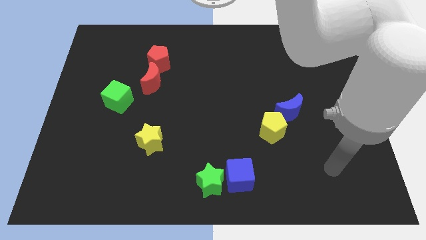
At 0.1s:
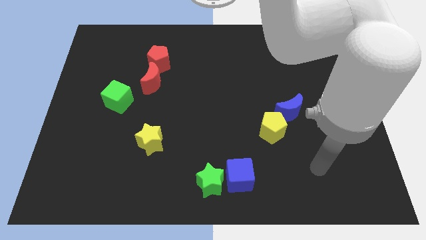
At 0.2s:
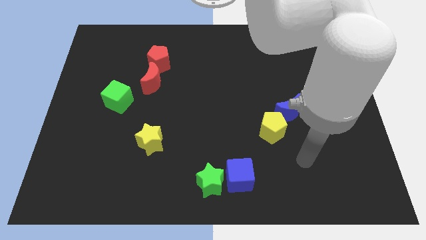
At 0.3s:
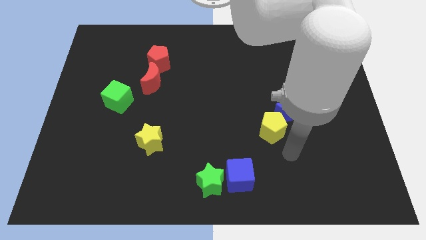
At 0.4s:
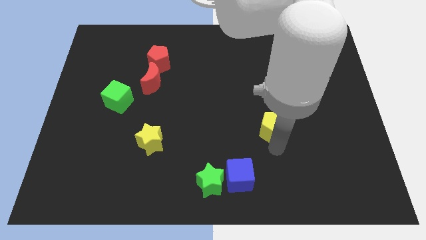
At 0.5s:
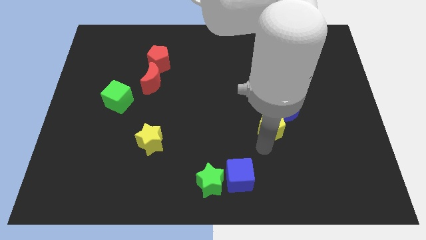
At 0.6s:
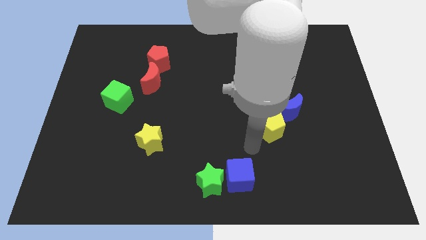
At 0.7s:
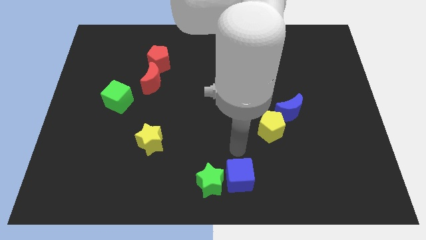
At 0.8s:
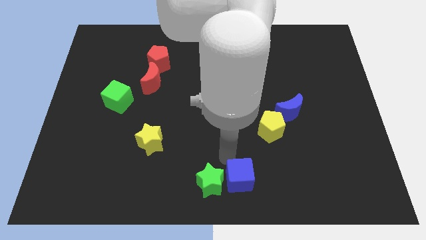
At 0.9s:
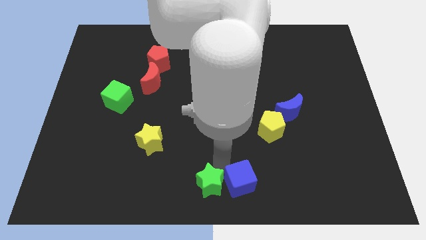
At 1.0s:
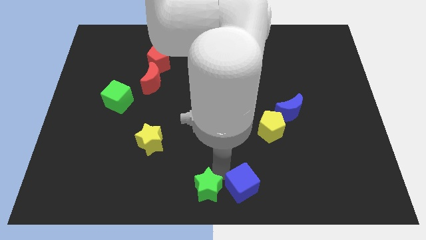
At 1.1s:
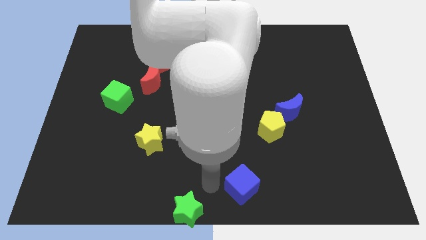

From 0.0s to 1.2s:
pull the blue cube apart from the green star

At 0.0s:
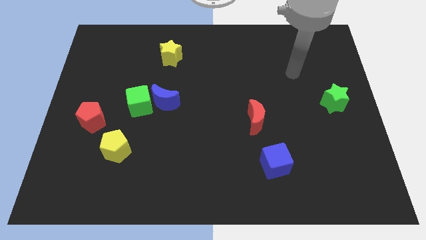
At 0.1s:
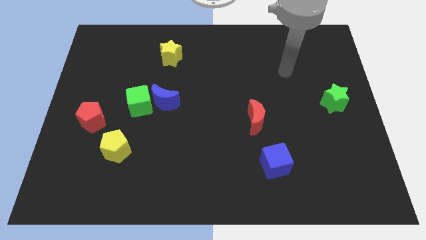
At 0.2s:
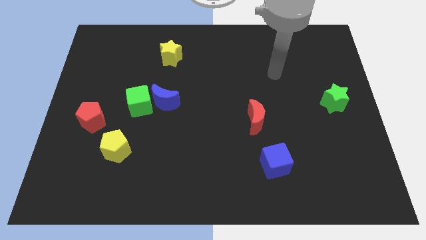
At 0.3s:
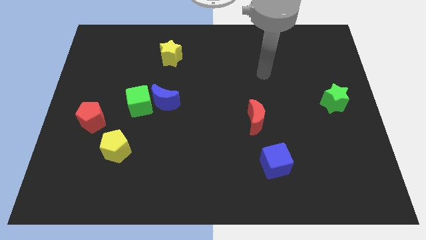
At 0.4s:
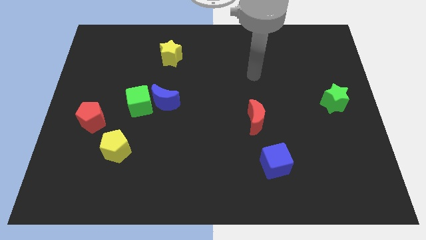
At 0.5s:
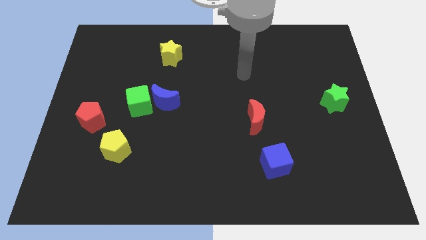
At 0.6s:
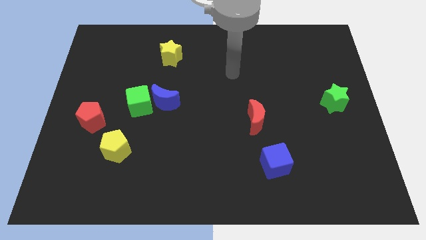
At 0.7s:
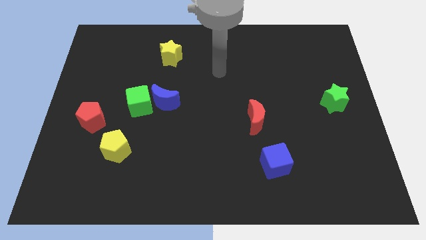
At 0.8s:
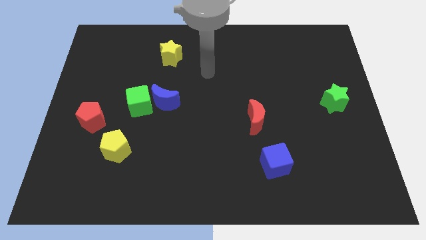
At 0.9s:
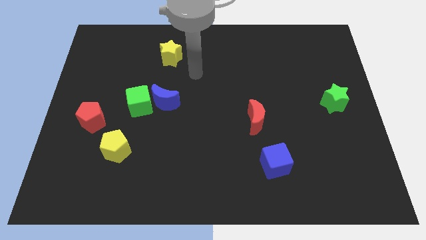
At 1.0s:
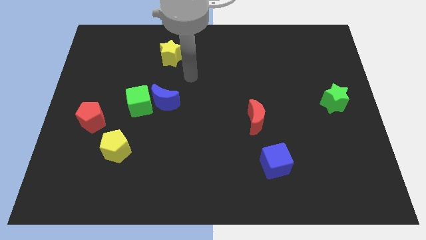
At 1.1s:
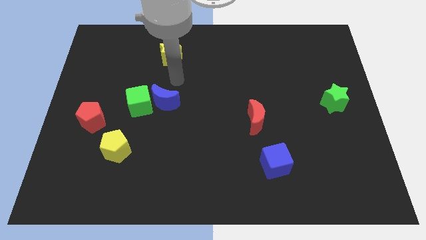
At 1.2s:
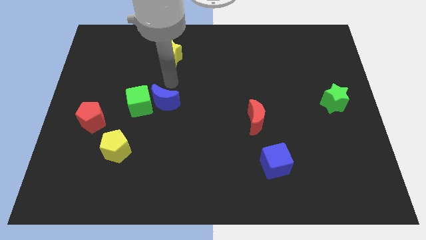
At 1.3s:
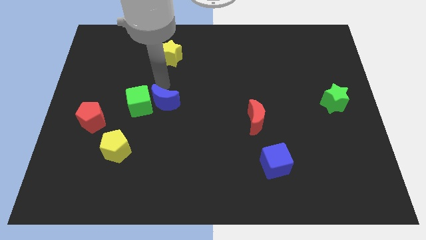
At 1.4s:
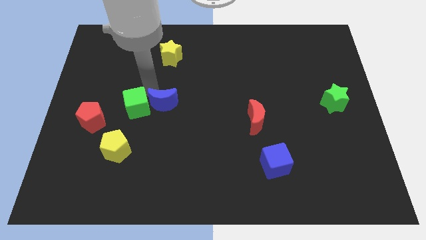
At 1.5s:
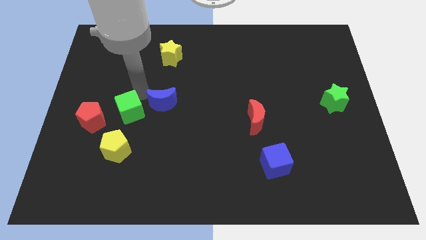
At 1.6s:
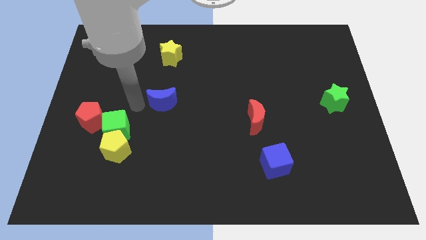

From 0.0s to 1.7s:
pull the blue moon apart from the green cube

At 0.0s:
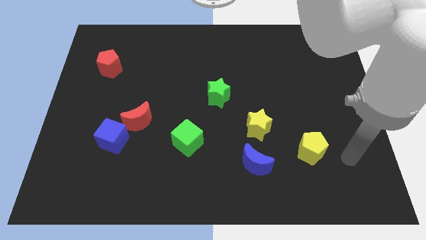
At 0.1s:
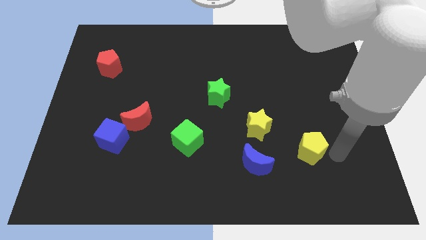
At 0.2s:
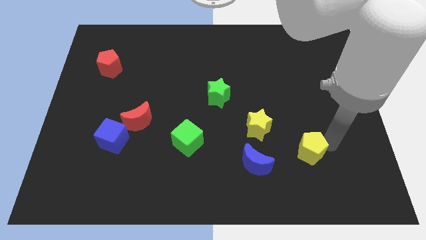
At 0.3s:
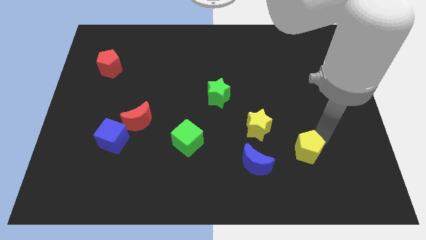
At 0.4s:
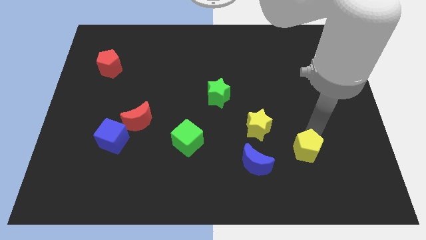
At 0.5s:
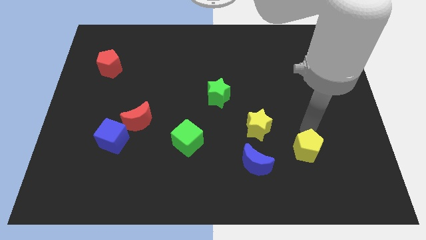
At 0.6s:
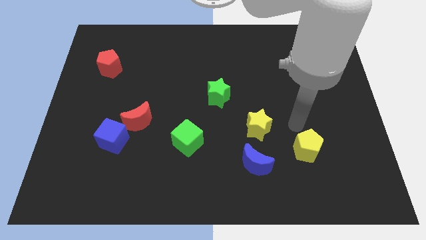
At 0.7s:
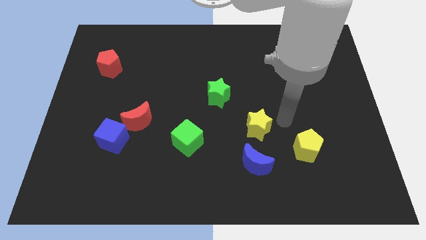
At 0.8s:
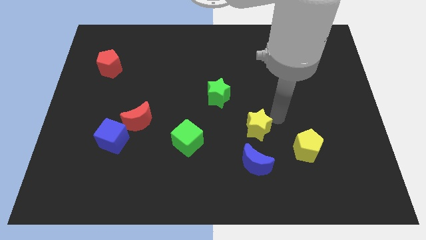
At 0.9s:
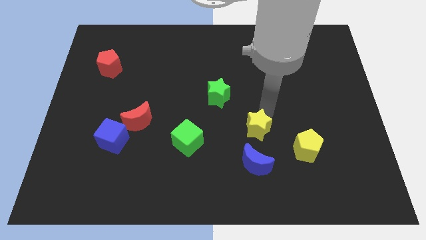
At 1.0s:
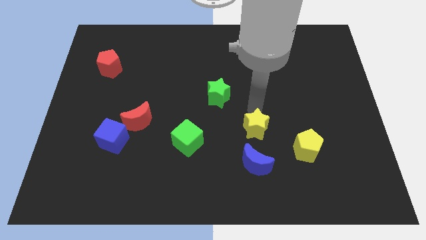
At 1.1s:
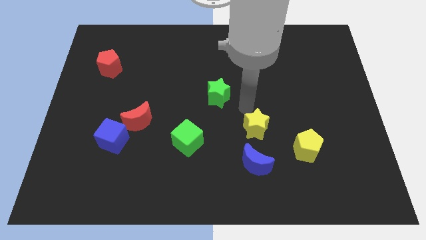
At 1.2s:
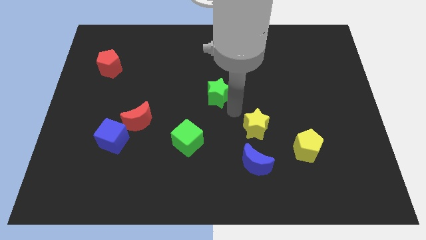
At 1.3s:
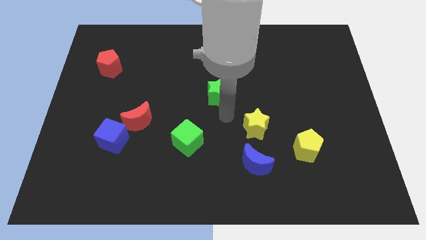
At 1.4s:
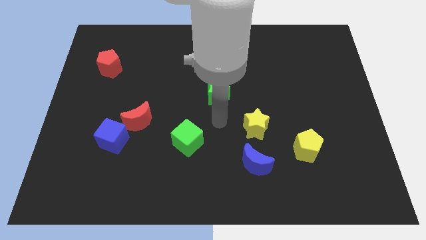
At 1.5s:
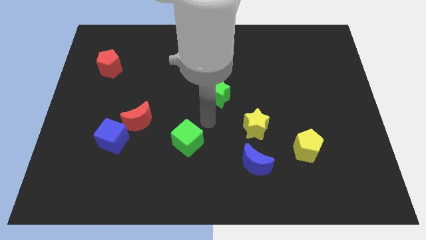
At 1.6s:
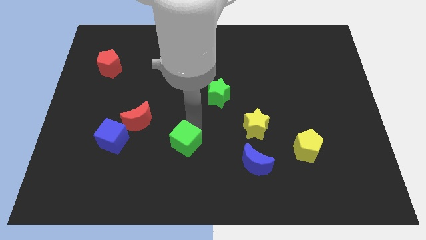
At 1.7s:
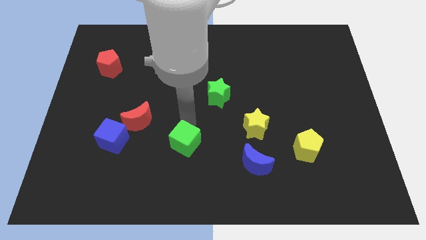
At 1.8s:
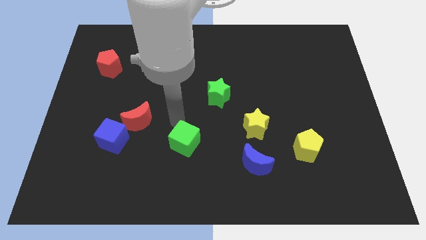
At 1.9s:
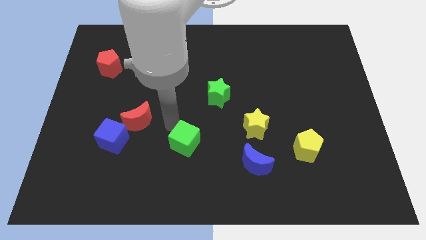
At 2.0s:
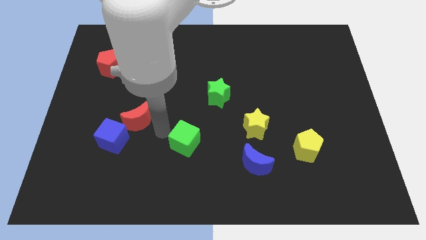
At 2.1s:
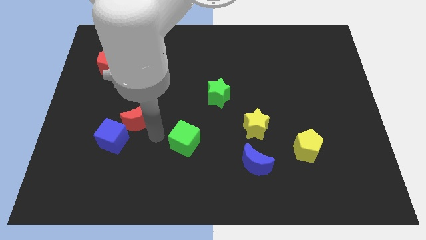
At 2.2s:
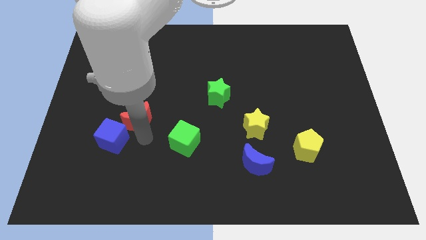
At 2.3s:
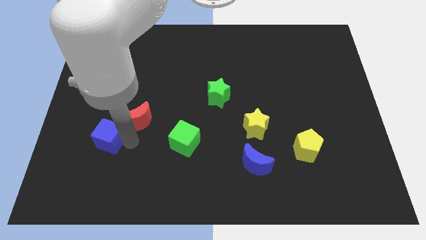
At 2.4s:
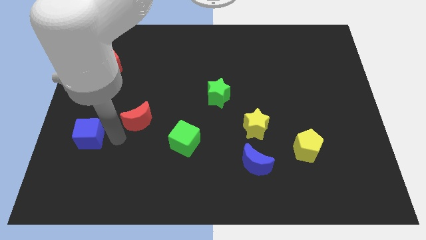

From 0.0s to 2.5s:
separate the red moon from the blue cube

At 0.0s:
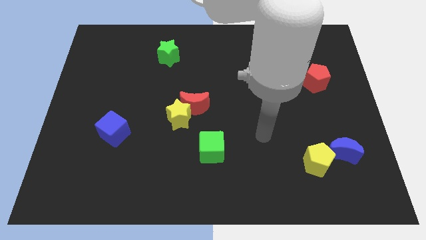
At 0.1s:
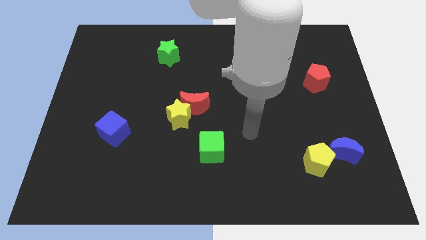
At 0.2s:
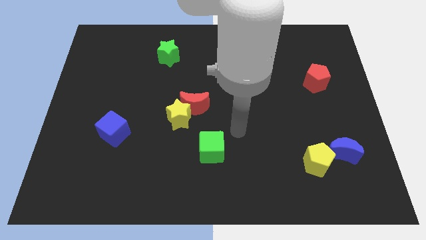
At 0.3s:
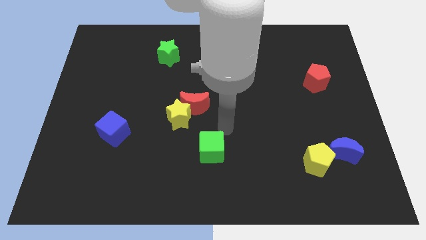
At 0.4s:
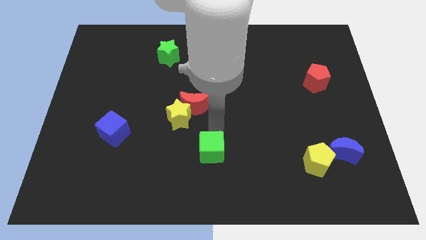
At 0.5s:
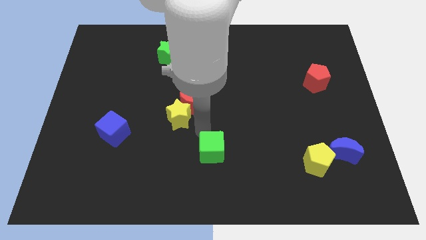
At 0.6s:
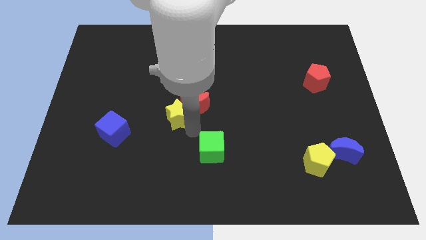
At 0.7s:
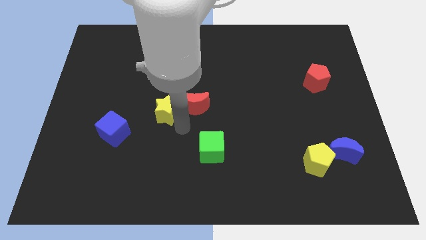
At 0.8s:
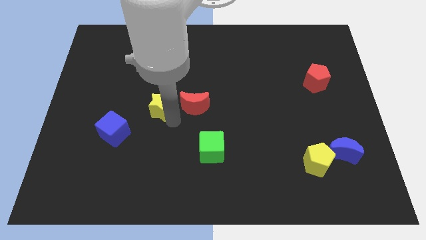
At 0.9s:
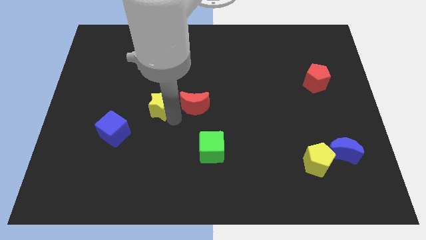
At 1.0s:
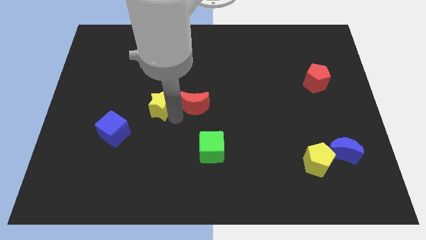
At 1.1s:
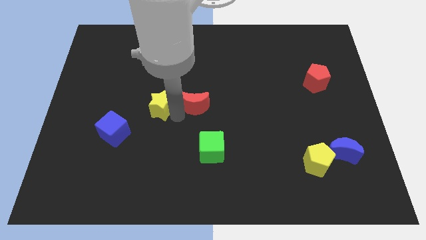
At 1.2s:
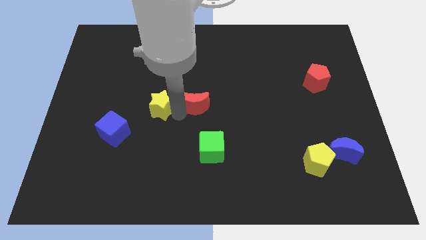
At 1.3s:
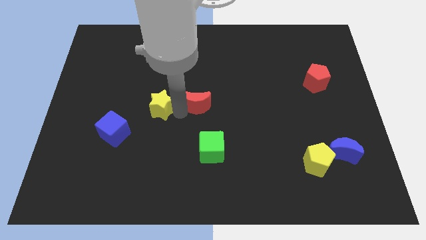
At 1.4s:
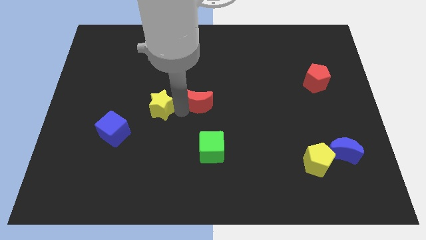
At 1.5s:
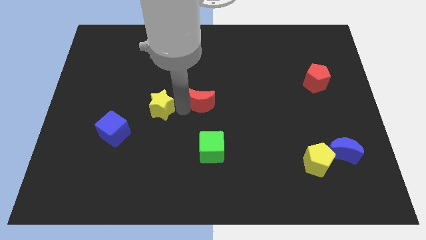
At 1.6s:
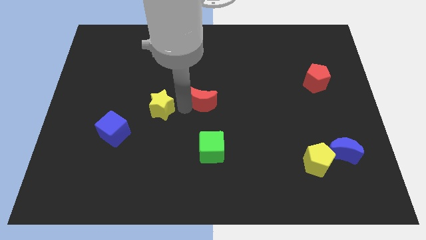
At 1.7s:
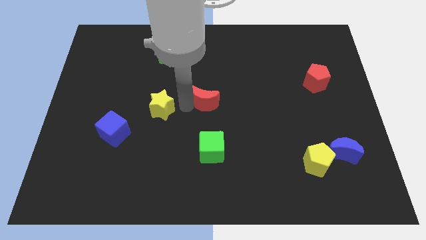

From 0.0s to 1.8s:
move the red moon away from the yellow star

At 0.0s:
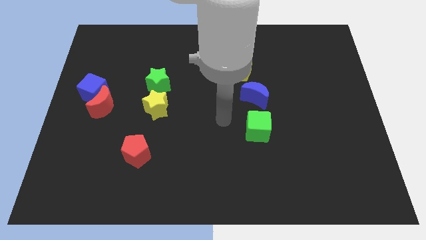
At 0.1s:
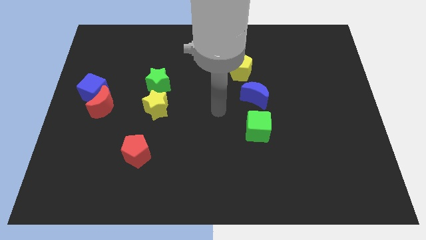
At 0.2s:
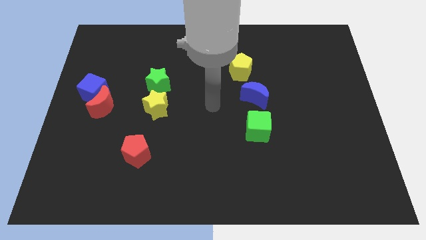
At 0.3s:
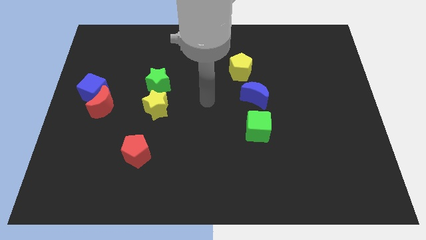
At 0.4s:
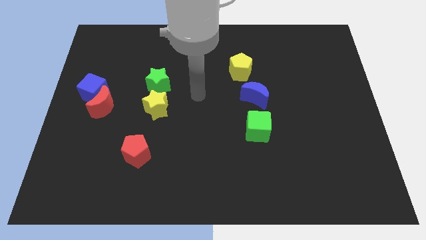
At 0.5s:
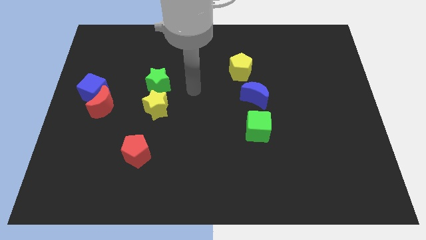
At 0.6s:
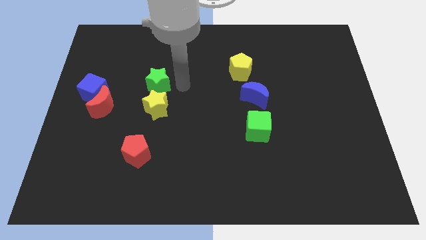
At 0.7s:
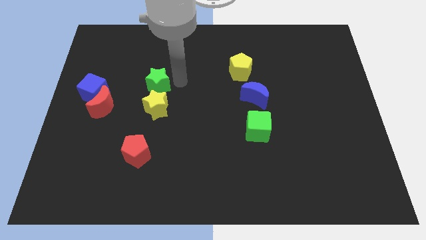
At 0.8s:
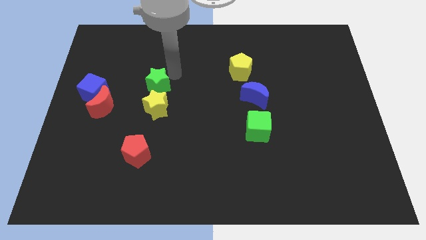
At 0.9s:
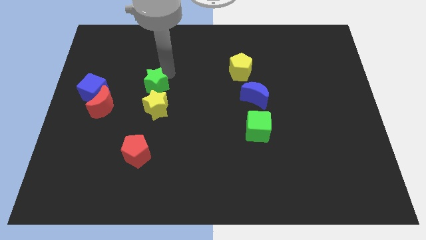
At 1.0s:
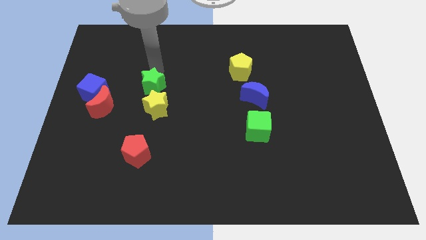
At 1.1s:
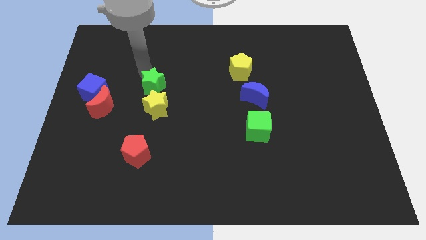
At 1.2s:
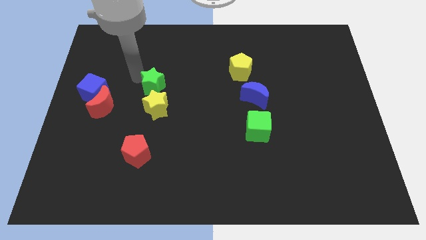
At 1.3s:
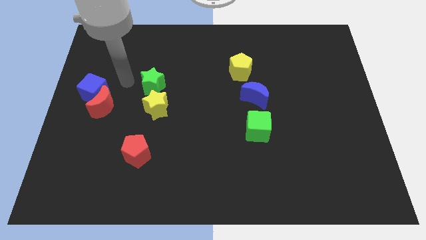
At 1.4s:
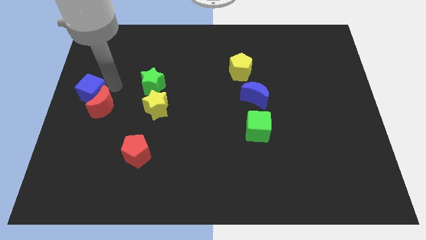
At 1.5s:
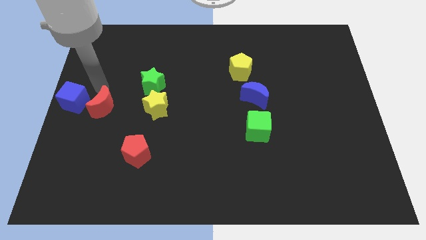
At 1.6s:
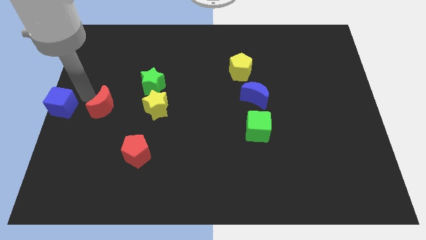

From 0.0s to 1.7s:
move the red moon away from the blue cube

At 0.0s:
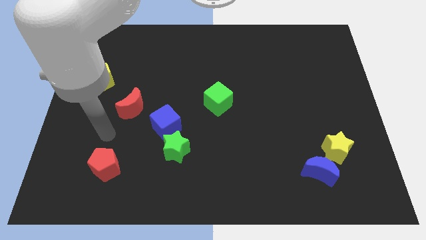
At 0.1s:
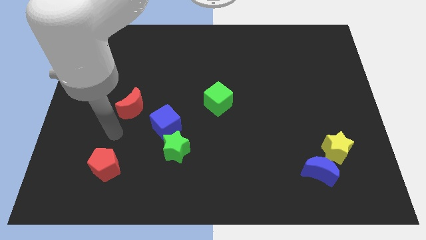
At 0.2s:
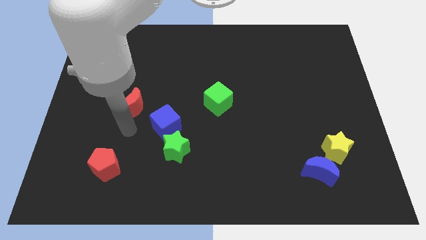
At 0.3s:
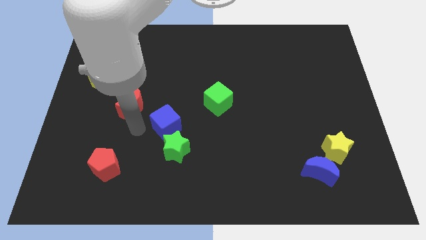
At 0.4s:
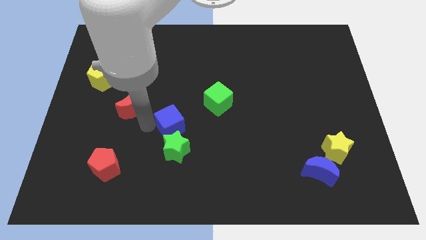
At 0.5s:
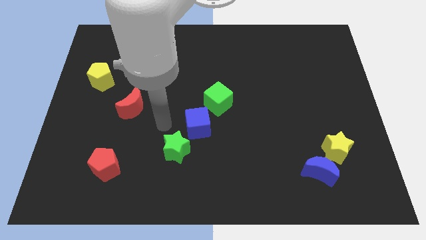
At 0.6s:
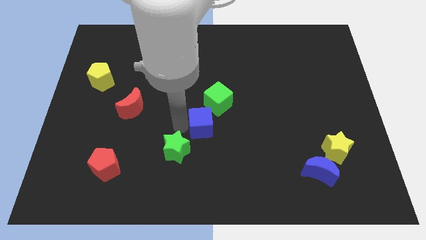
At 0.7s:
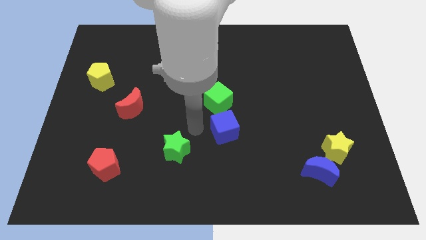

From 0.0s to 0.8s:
pull the green star apart from the blue cube
